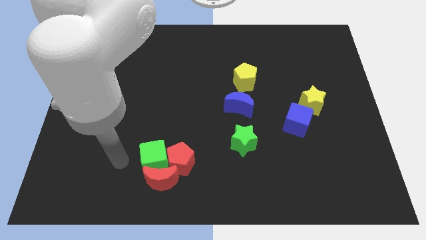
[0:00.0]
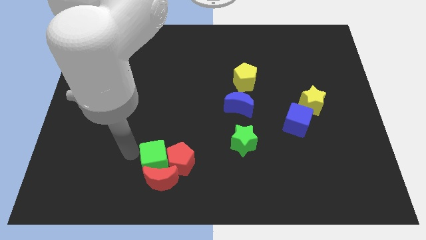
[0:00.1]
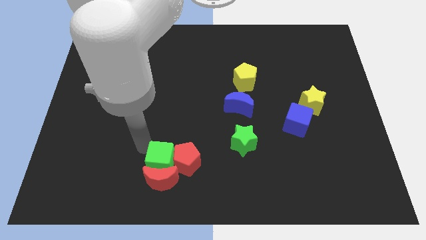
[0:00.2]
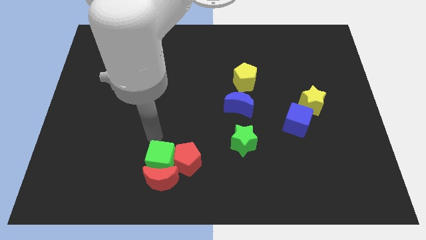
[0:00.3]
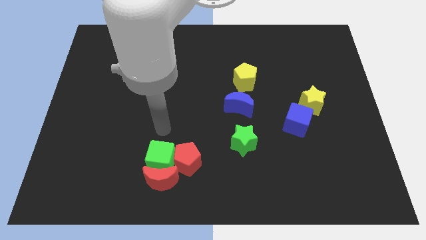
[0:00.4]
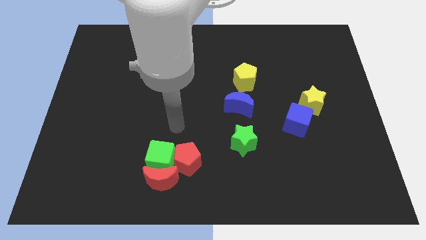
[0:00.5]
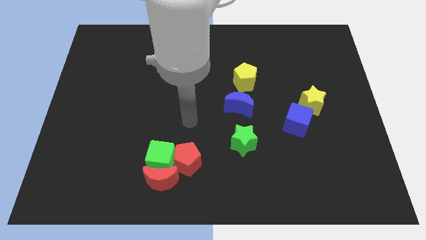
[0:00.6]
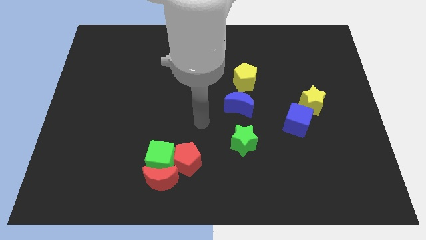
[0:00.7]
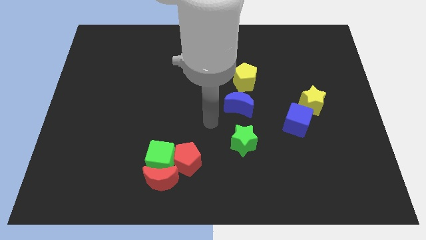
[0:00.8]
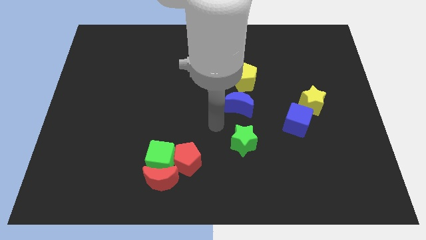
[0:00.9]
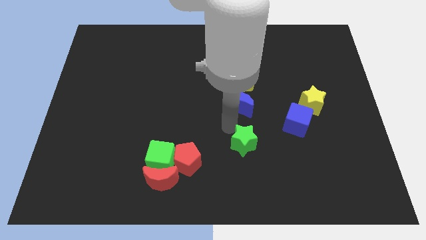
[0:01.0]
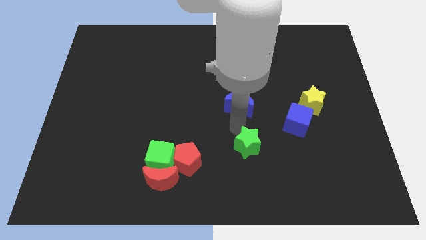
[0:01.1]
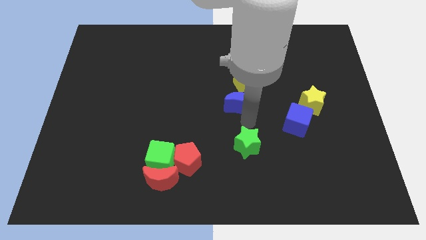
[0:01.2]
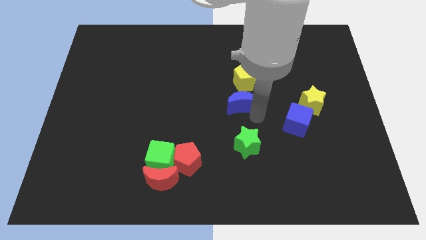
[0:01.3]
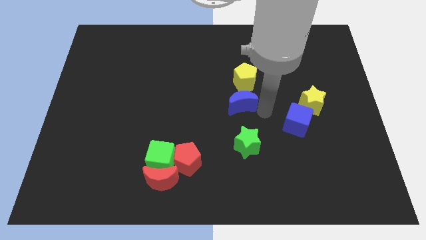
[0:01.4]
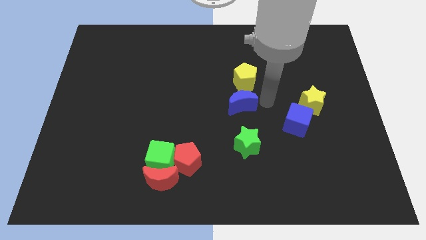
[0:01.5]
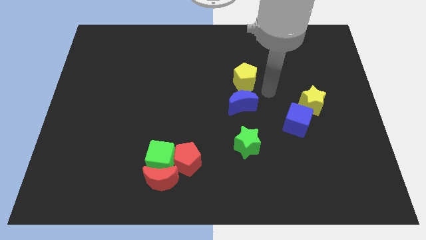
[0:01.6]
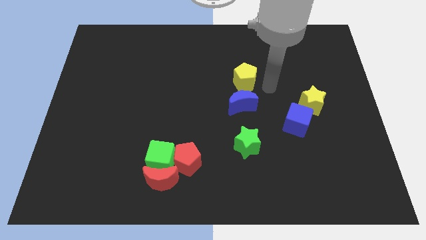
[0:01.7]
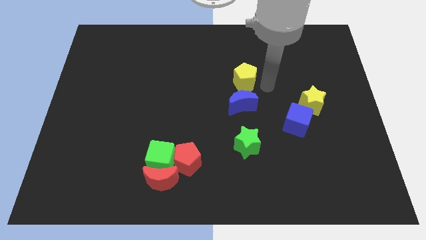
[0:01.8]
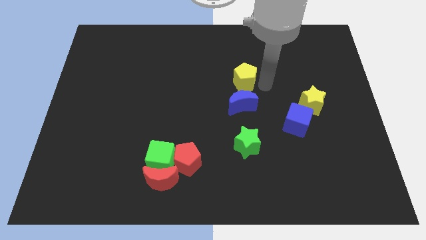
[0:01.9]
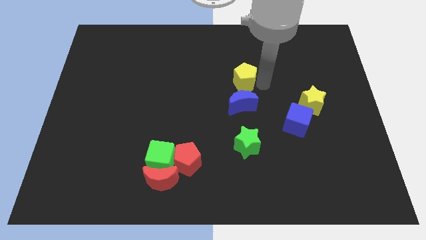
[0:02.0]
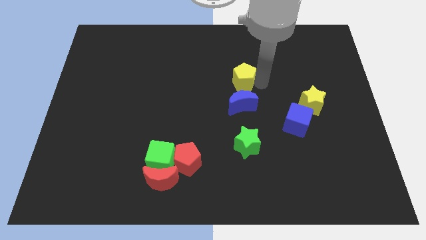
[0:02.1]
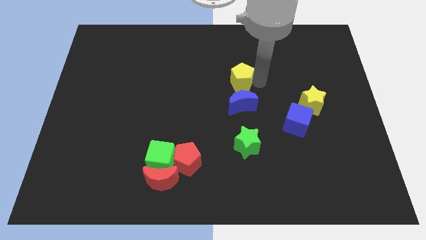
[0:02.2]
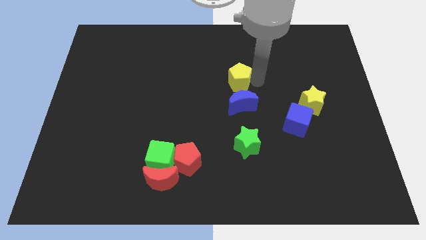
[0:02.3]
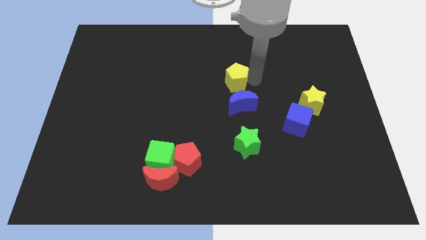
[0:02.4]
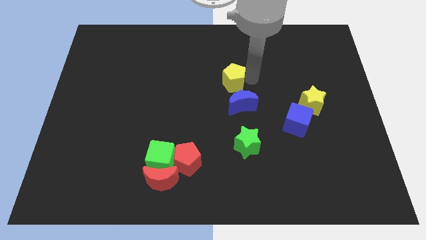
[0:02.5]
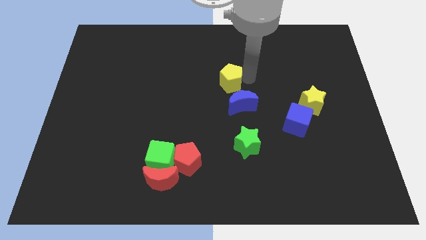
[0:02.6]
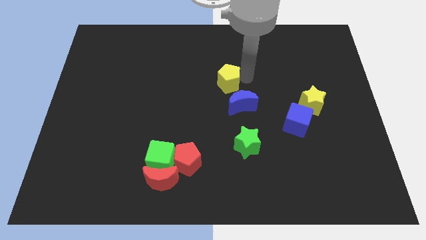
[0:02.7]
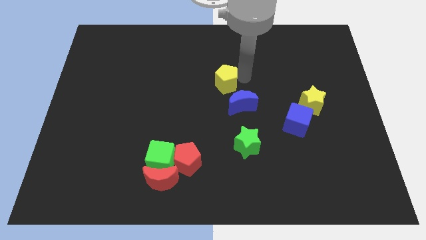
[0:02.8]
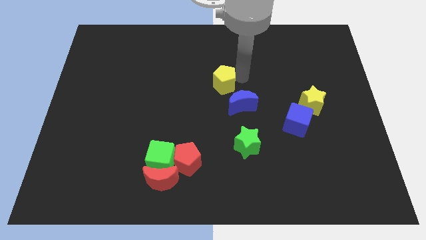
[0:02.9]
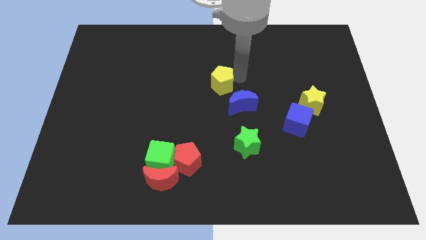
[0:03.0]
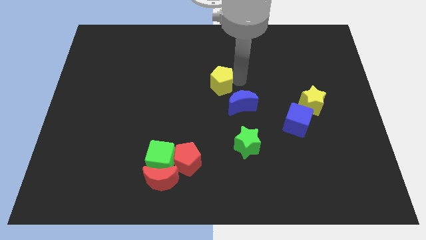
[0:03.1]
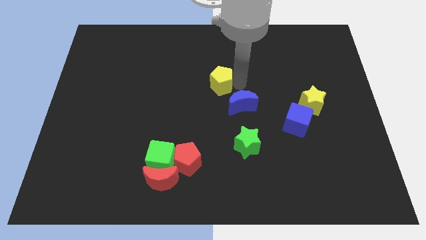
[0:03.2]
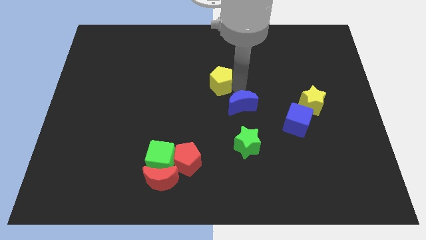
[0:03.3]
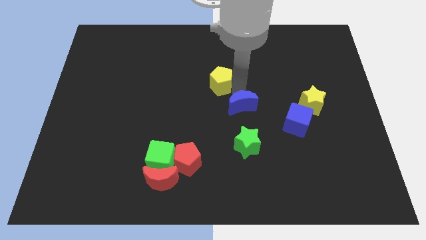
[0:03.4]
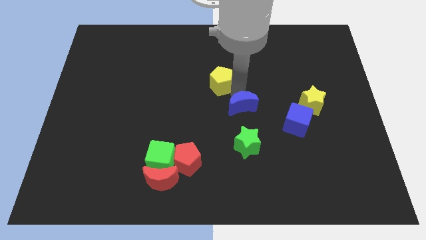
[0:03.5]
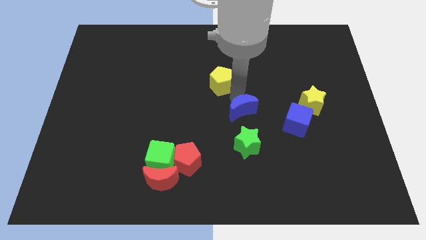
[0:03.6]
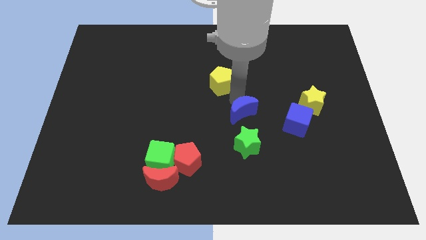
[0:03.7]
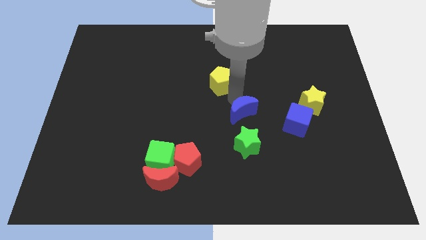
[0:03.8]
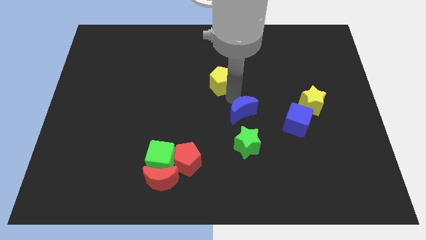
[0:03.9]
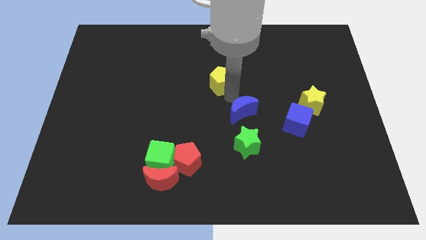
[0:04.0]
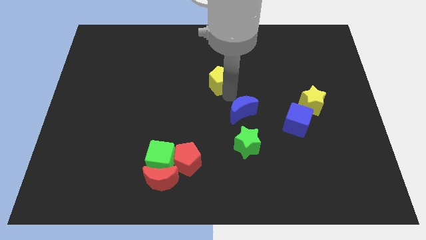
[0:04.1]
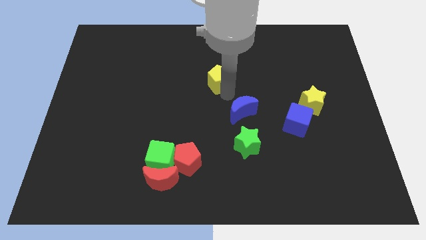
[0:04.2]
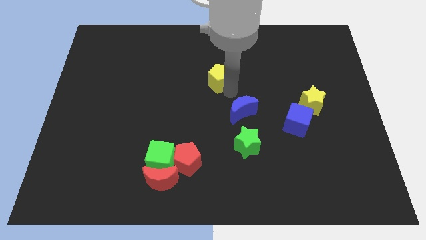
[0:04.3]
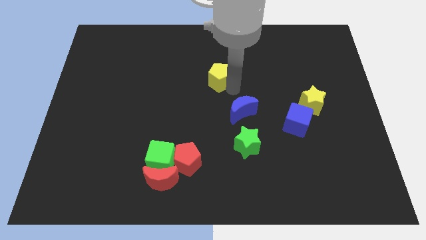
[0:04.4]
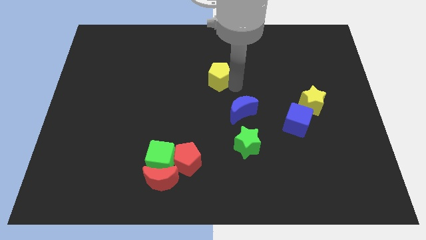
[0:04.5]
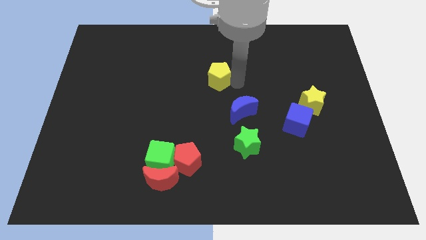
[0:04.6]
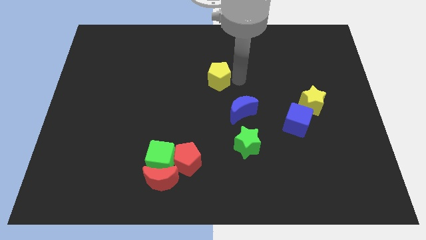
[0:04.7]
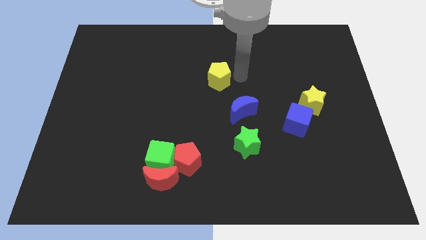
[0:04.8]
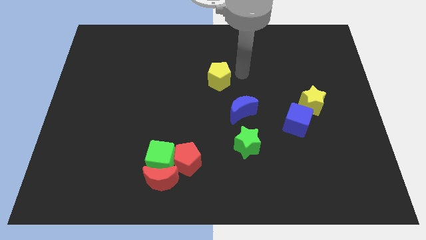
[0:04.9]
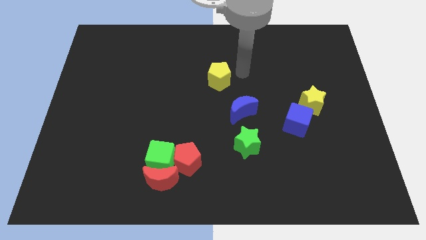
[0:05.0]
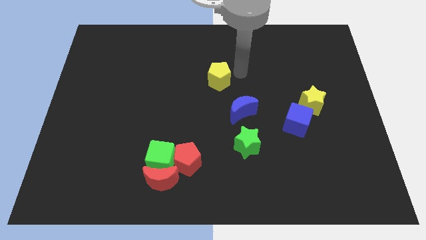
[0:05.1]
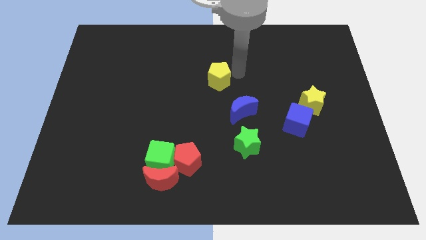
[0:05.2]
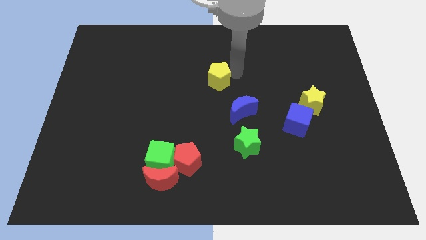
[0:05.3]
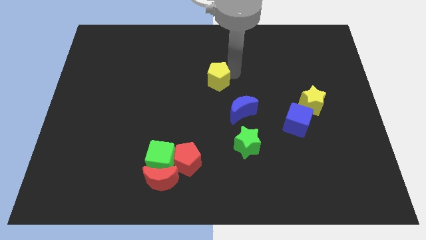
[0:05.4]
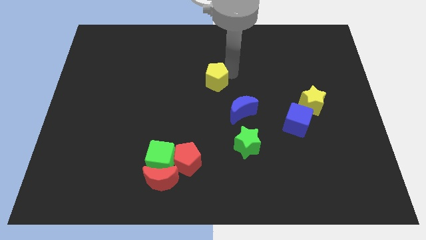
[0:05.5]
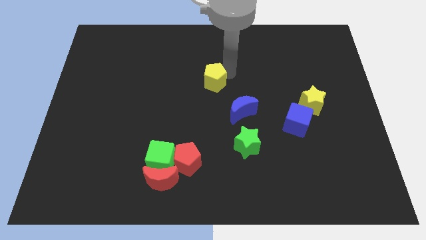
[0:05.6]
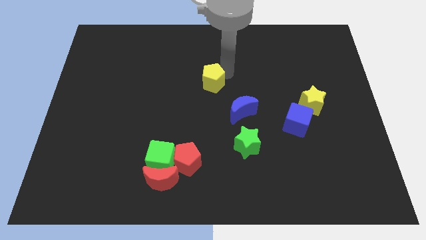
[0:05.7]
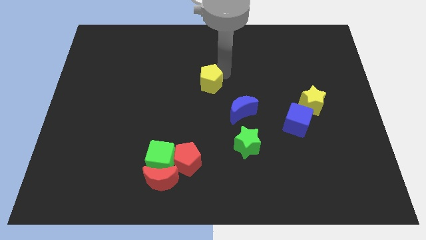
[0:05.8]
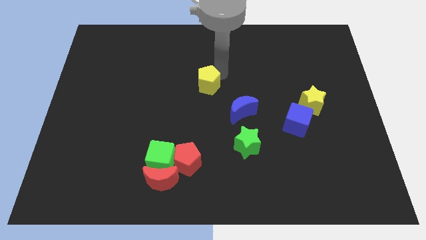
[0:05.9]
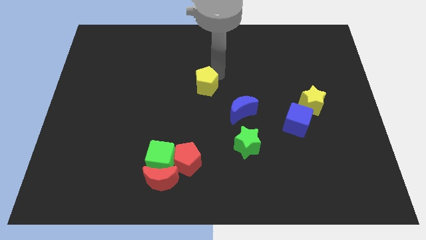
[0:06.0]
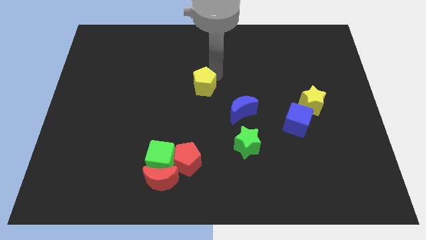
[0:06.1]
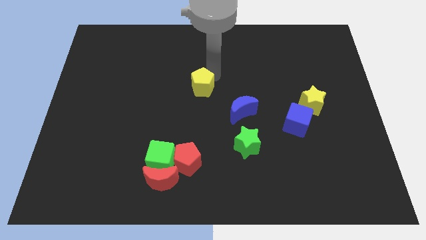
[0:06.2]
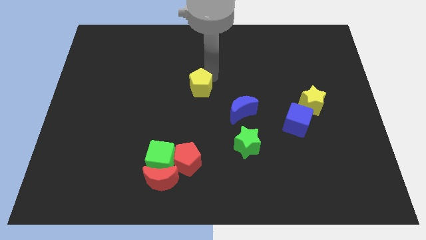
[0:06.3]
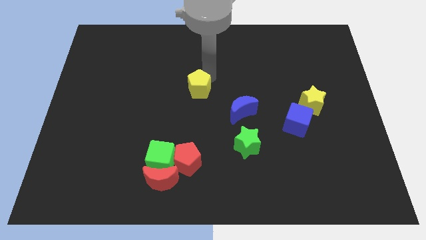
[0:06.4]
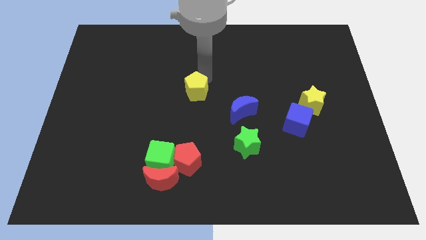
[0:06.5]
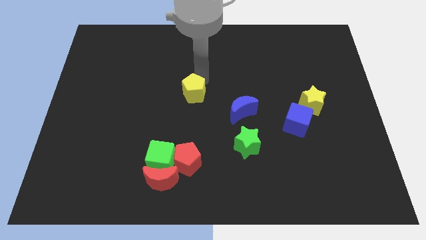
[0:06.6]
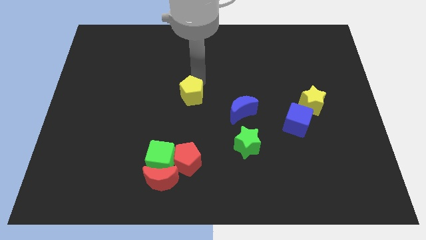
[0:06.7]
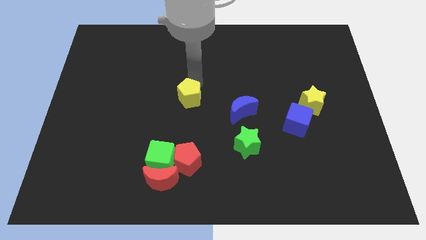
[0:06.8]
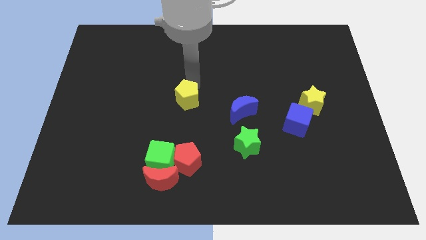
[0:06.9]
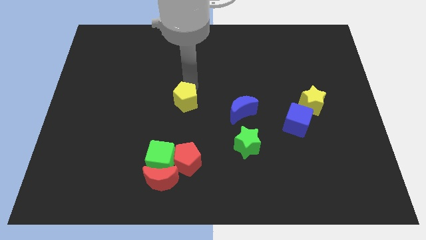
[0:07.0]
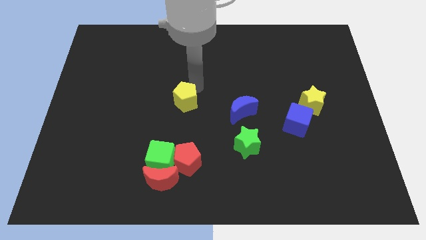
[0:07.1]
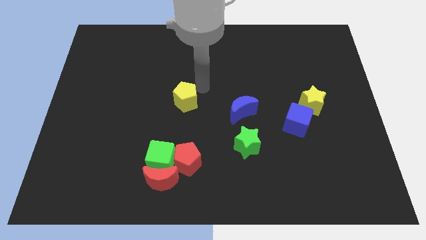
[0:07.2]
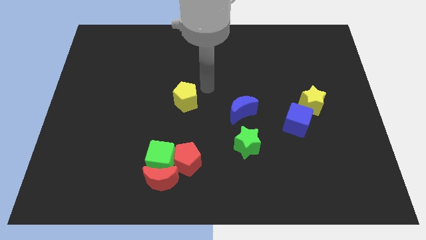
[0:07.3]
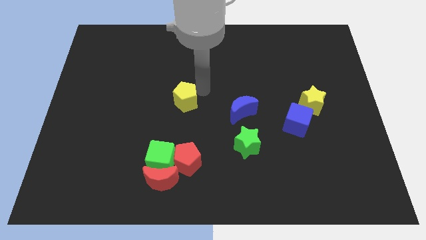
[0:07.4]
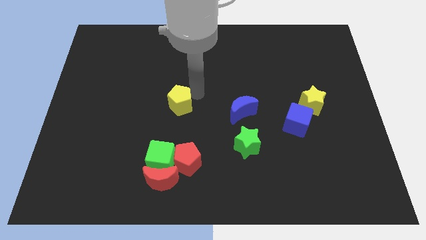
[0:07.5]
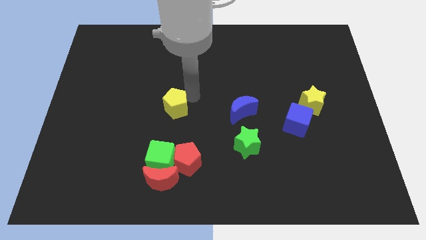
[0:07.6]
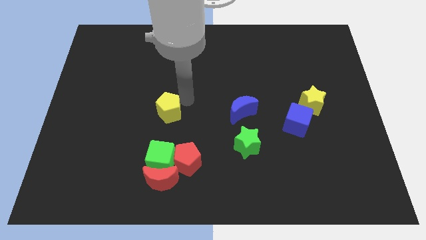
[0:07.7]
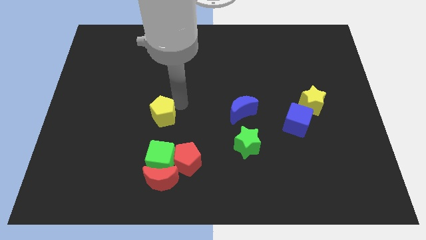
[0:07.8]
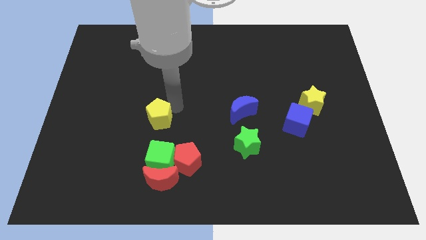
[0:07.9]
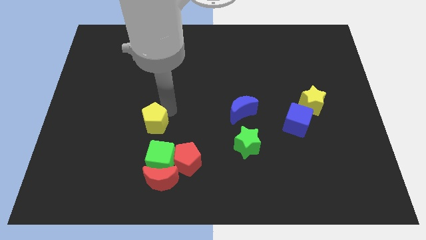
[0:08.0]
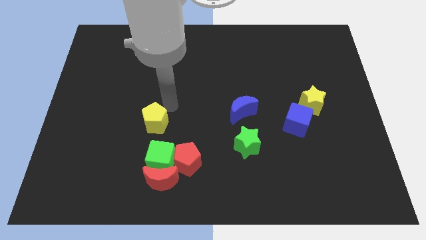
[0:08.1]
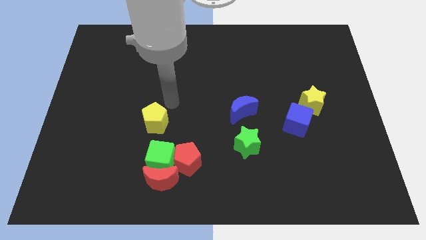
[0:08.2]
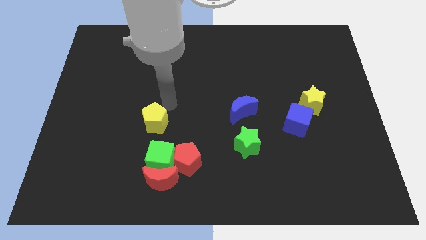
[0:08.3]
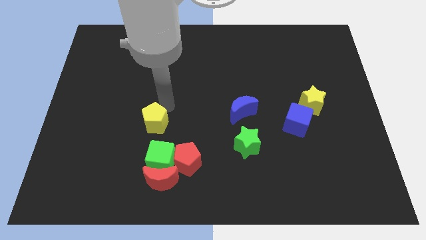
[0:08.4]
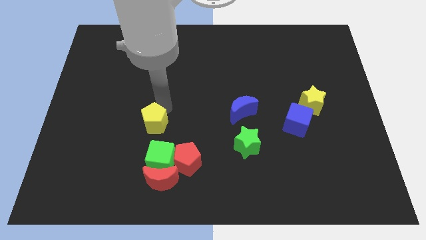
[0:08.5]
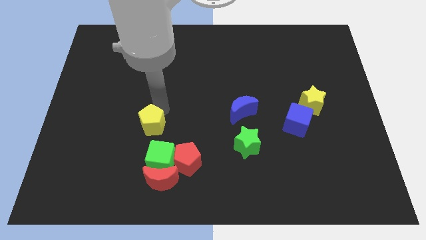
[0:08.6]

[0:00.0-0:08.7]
put the yellow pentagon diagonally up and to the left of the green cube
